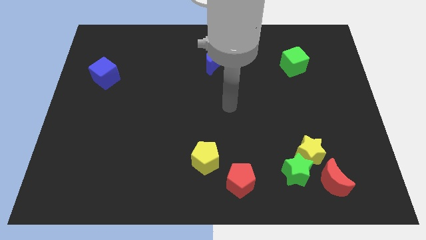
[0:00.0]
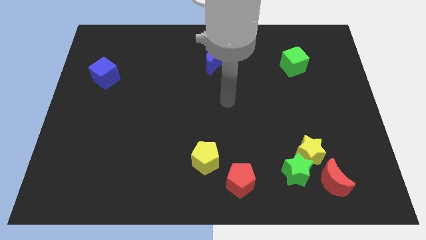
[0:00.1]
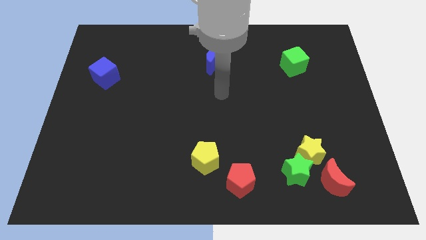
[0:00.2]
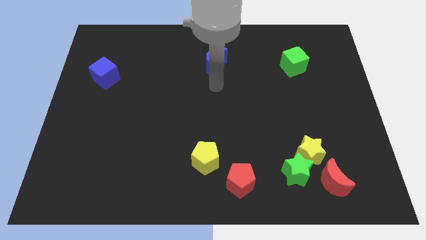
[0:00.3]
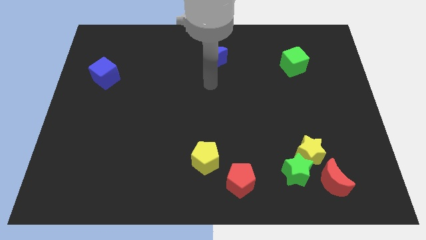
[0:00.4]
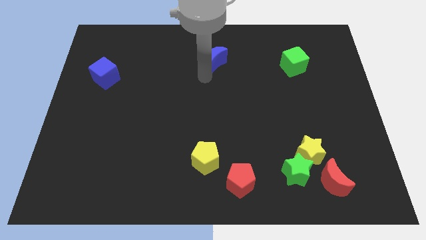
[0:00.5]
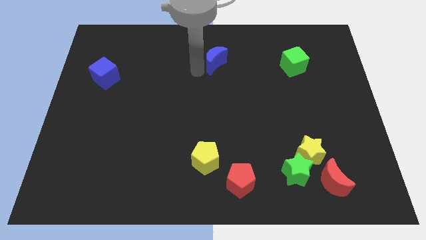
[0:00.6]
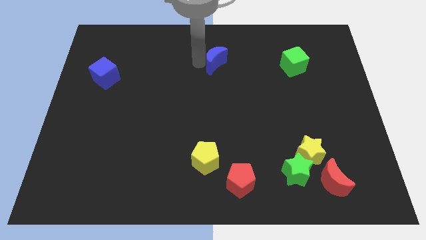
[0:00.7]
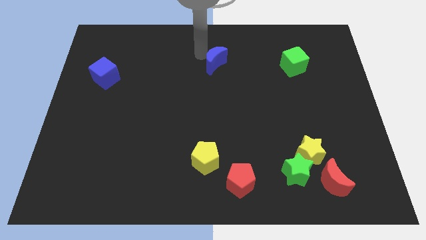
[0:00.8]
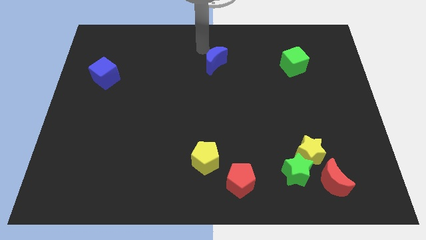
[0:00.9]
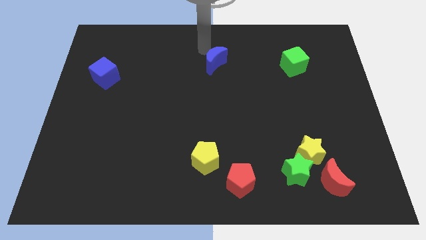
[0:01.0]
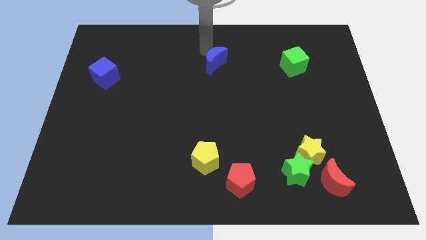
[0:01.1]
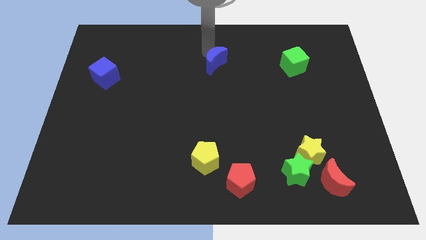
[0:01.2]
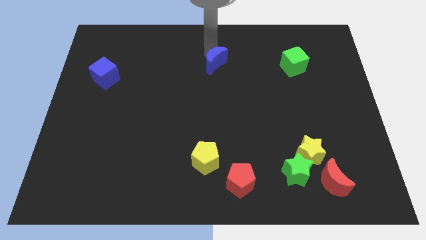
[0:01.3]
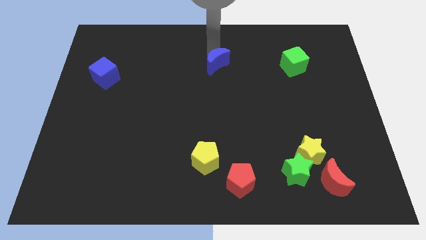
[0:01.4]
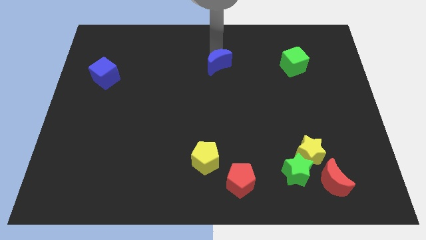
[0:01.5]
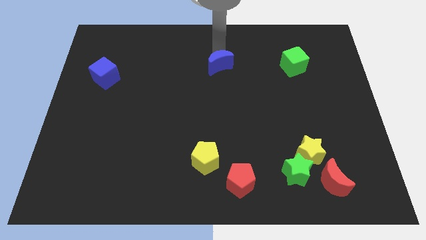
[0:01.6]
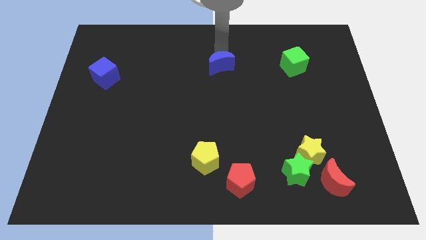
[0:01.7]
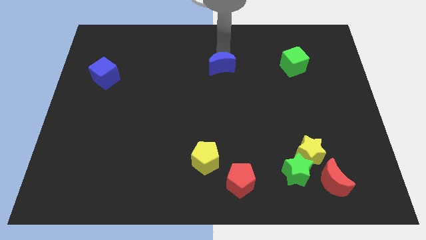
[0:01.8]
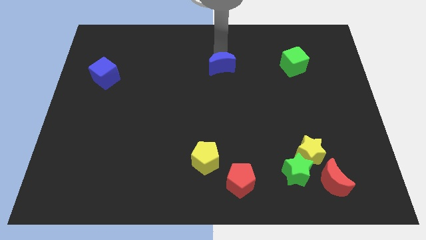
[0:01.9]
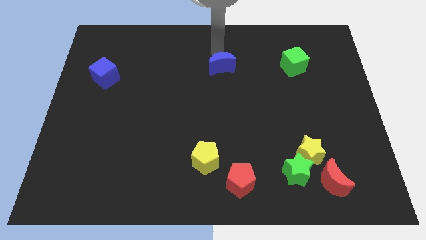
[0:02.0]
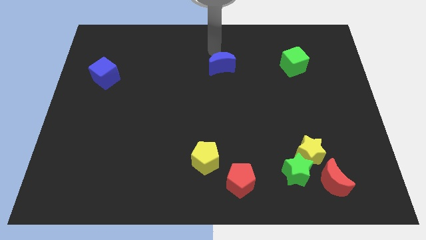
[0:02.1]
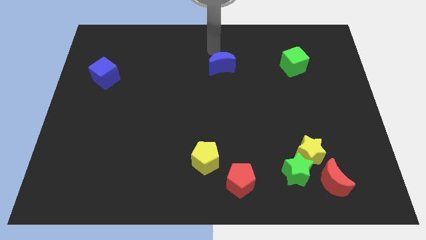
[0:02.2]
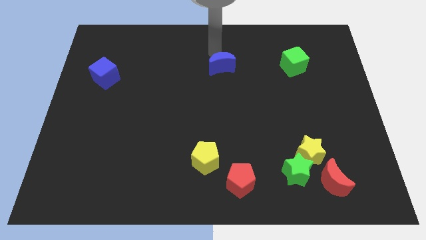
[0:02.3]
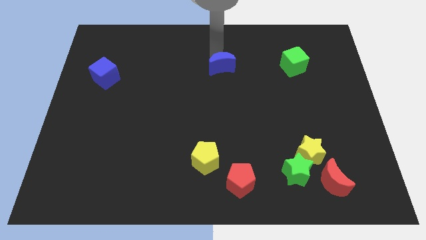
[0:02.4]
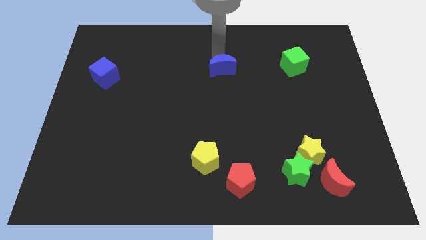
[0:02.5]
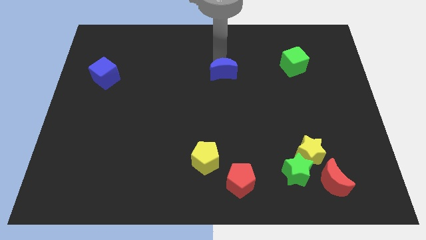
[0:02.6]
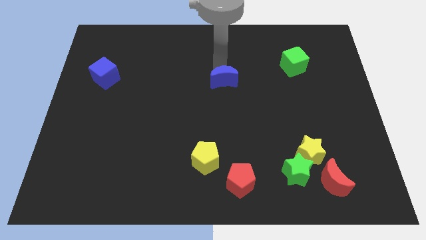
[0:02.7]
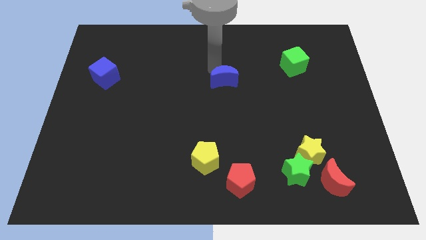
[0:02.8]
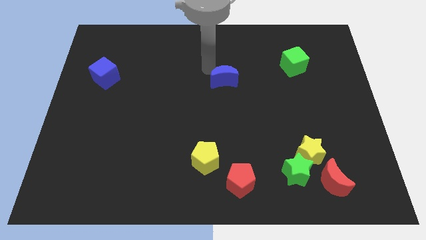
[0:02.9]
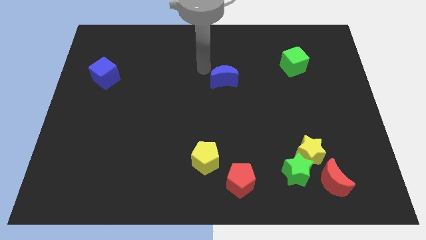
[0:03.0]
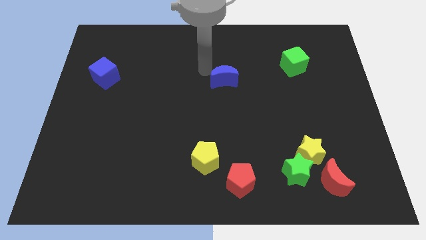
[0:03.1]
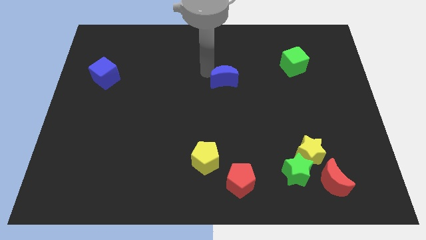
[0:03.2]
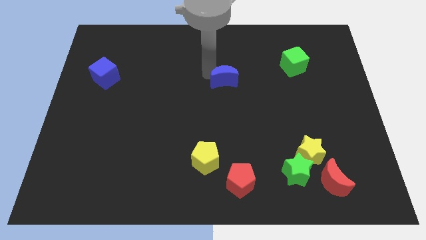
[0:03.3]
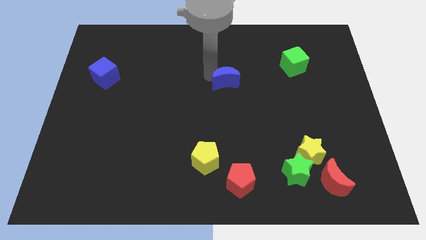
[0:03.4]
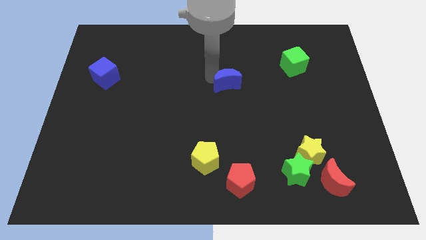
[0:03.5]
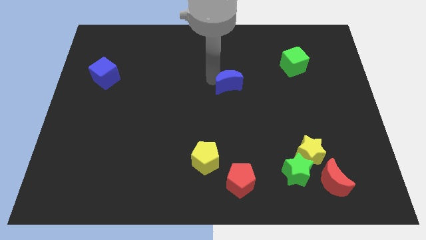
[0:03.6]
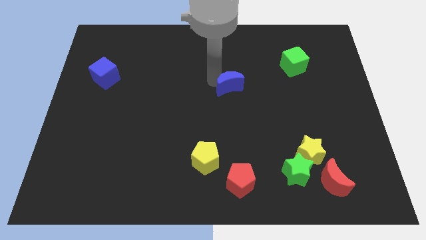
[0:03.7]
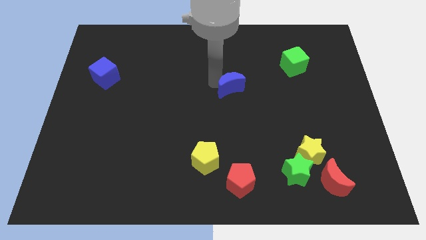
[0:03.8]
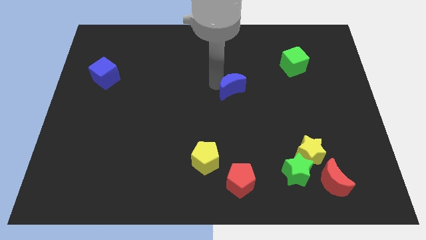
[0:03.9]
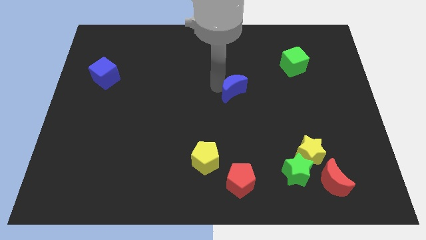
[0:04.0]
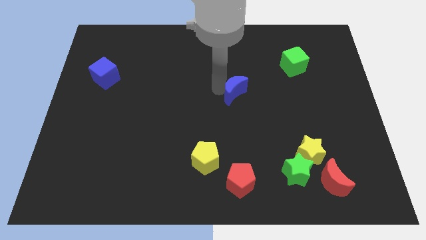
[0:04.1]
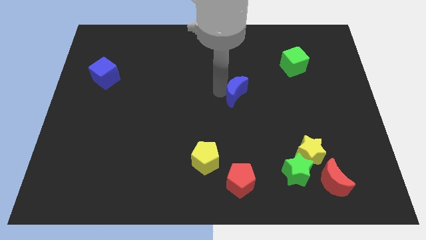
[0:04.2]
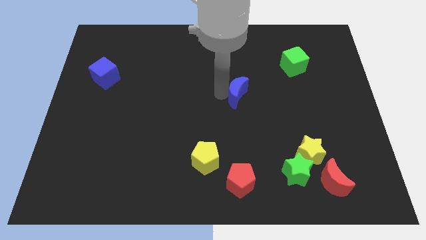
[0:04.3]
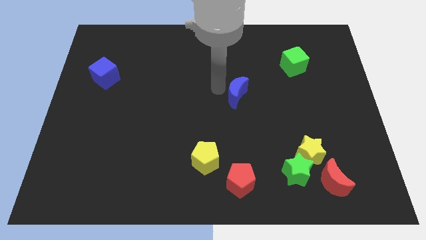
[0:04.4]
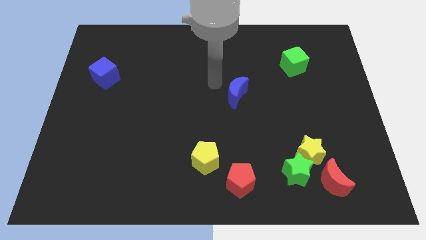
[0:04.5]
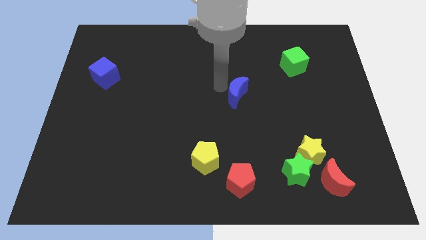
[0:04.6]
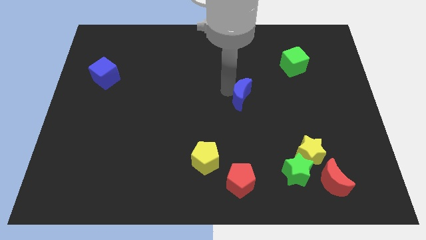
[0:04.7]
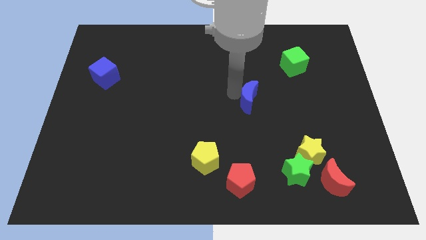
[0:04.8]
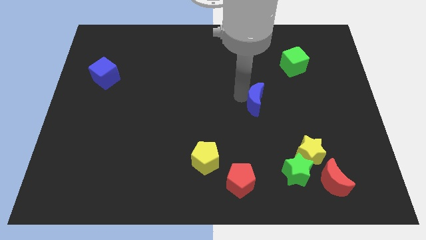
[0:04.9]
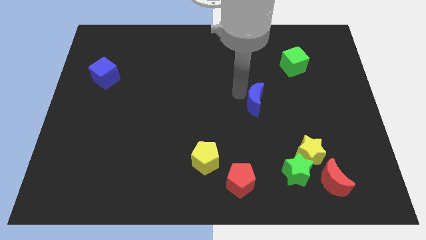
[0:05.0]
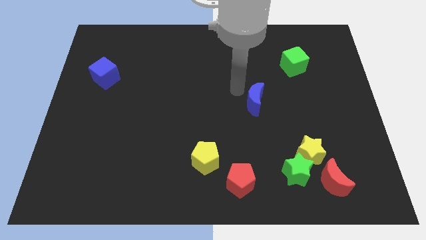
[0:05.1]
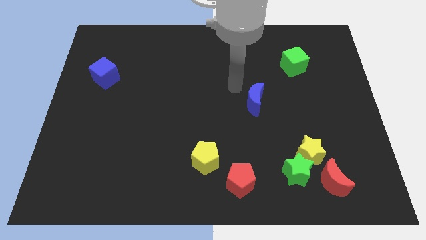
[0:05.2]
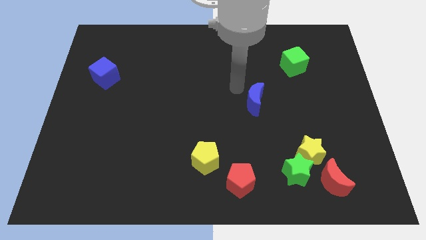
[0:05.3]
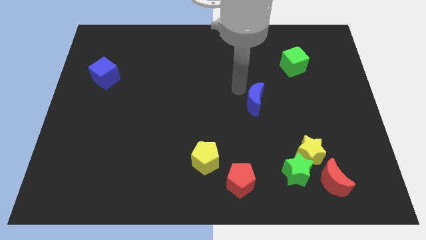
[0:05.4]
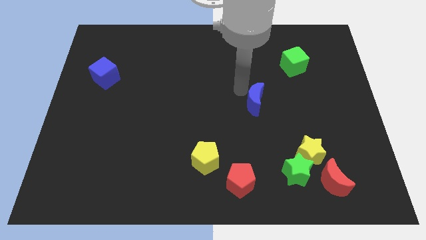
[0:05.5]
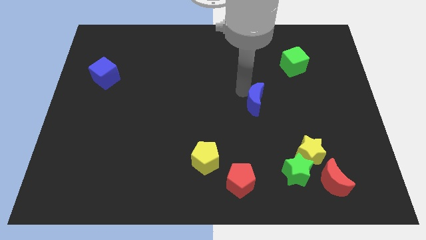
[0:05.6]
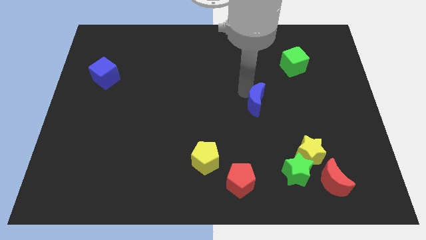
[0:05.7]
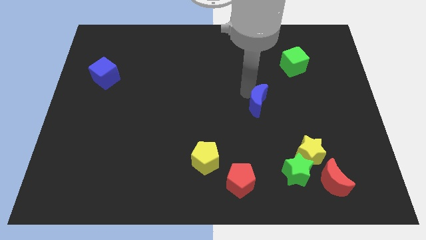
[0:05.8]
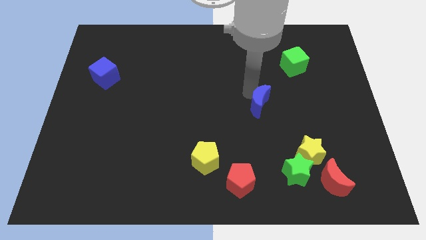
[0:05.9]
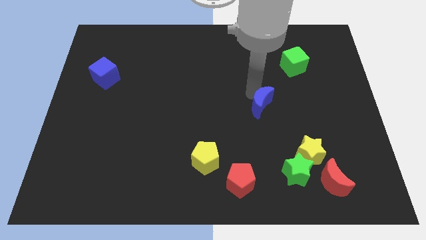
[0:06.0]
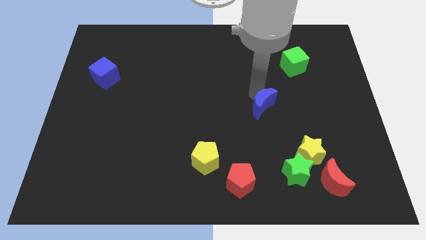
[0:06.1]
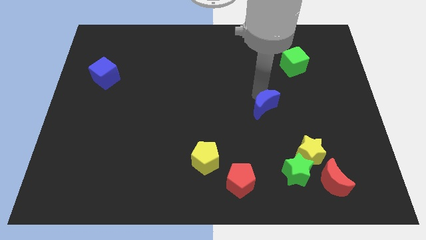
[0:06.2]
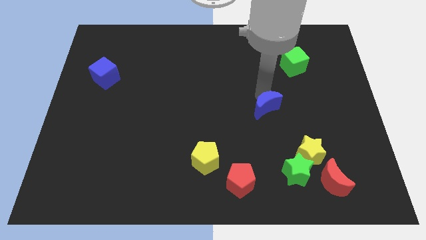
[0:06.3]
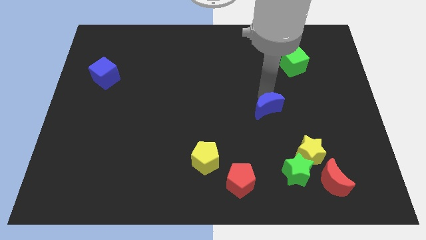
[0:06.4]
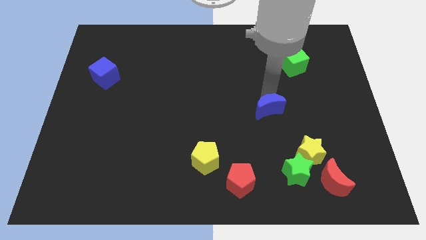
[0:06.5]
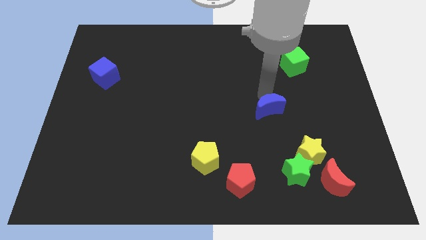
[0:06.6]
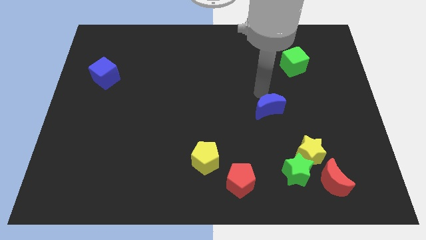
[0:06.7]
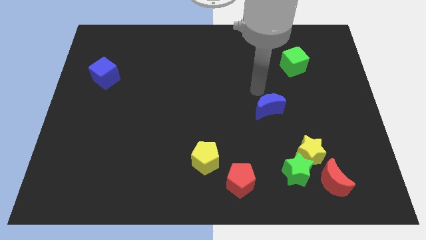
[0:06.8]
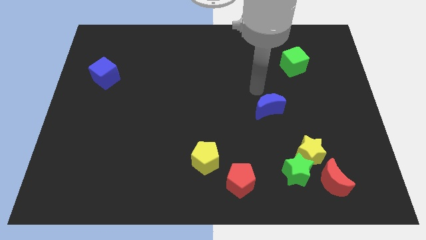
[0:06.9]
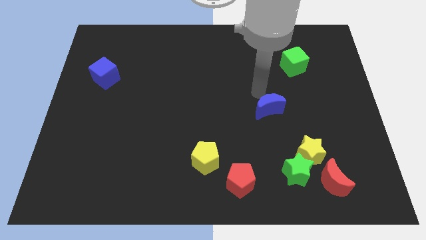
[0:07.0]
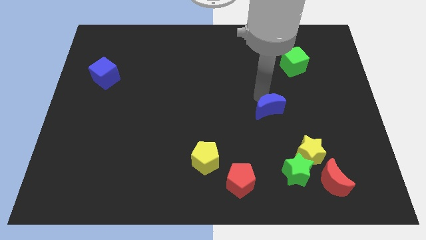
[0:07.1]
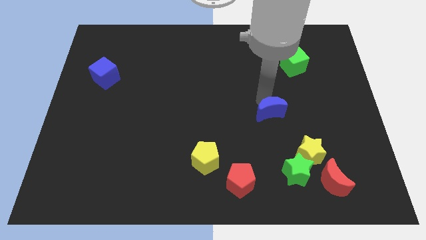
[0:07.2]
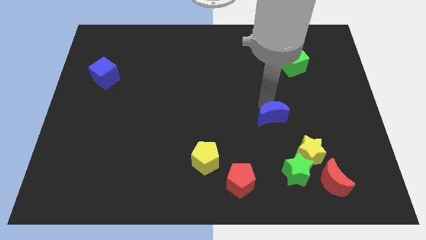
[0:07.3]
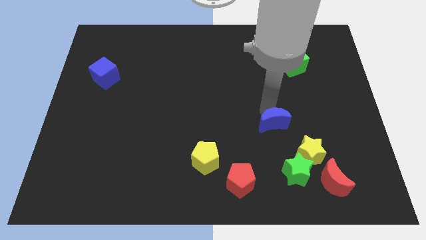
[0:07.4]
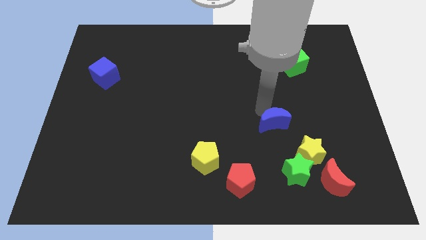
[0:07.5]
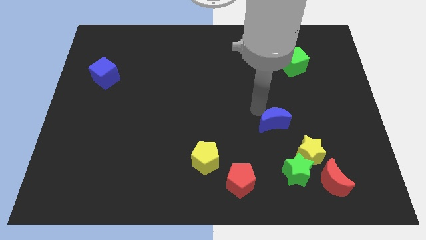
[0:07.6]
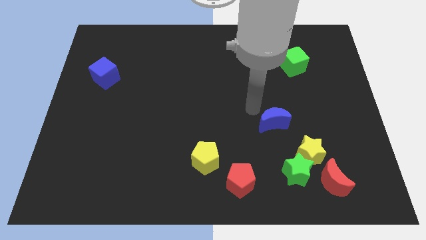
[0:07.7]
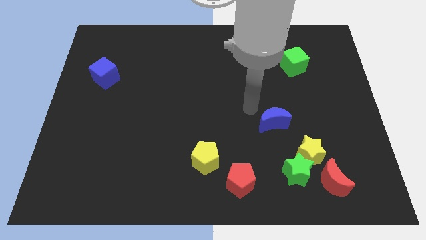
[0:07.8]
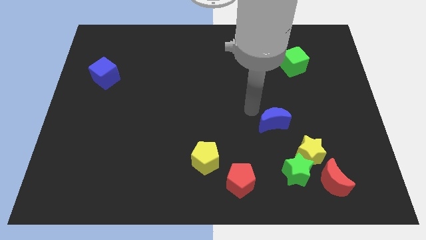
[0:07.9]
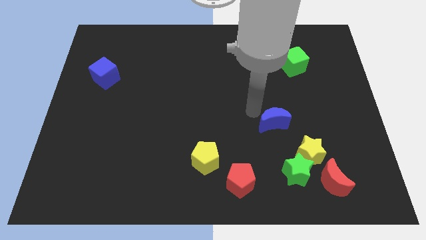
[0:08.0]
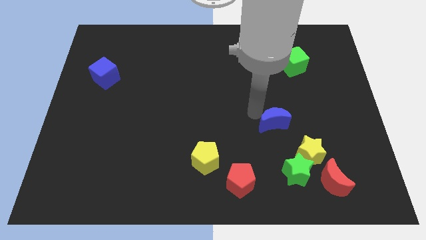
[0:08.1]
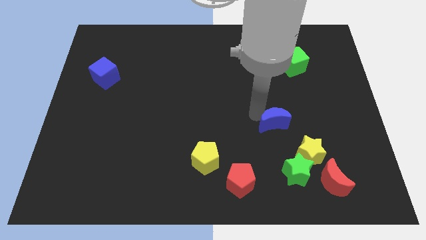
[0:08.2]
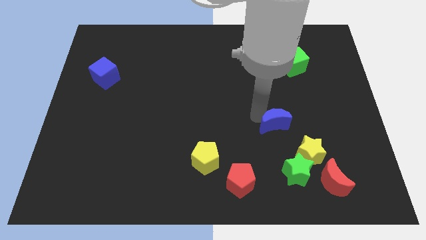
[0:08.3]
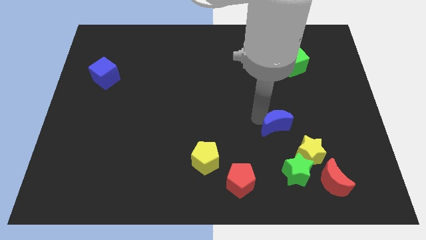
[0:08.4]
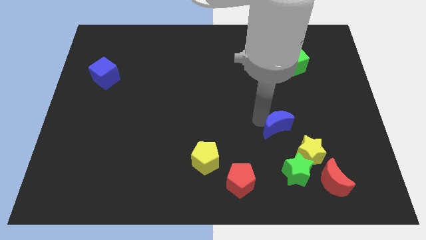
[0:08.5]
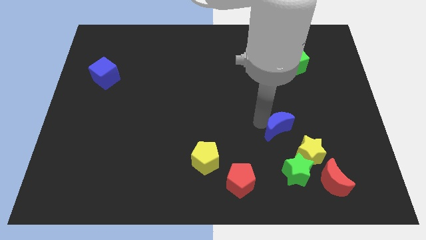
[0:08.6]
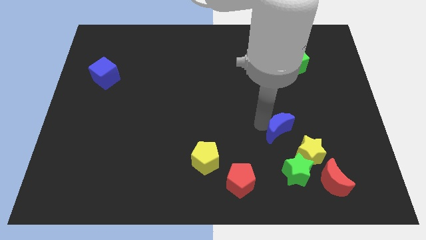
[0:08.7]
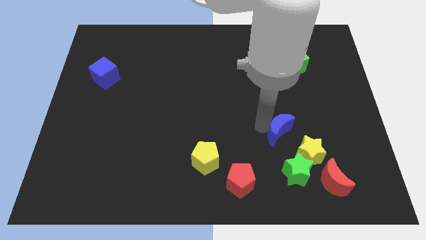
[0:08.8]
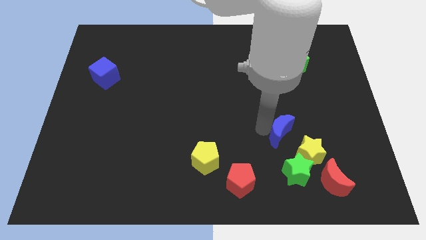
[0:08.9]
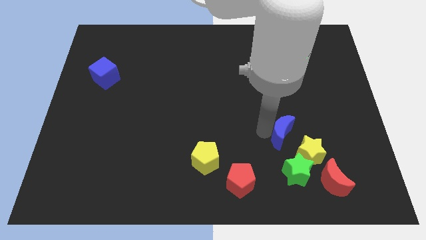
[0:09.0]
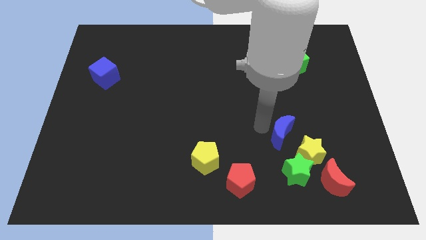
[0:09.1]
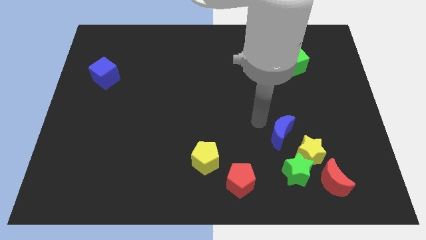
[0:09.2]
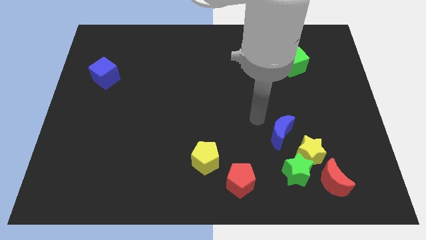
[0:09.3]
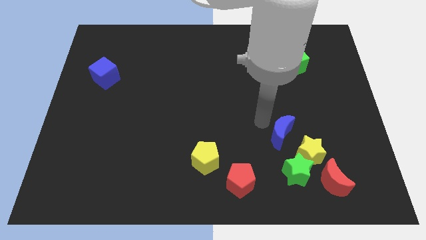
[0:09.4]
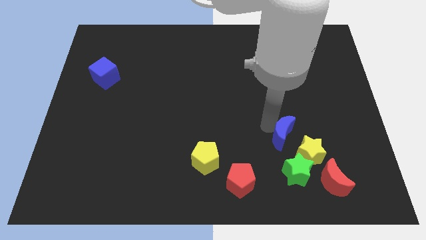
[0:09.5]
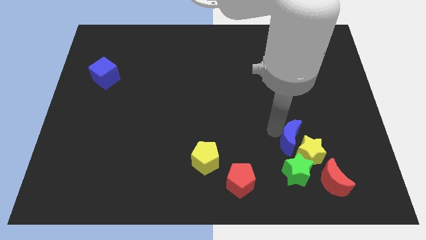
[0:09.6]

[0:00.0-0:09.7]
slide the blue moon towards the yellow star
